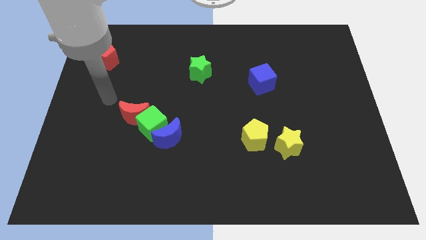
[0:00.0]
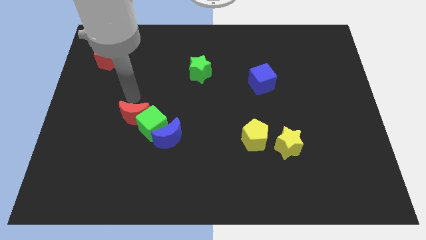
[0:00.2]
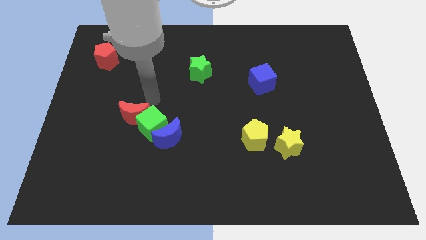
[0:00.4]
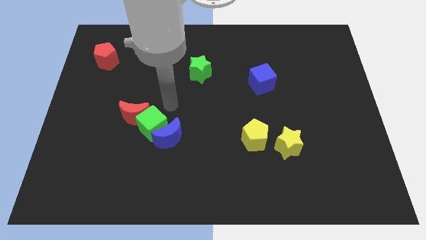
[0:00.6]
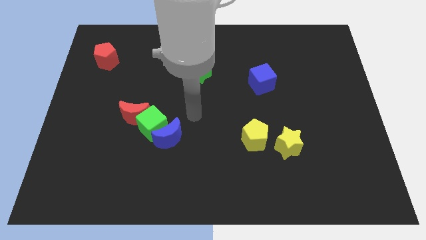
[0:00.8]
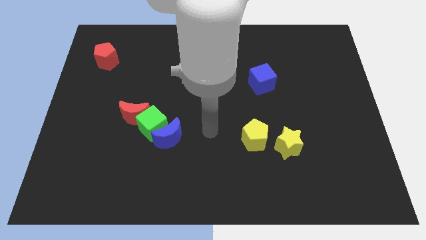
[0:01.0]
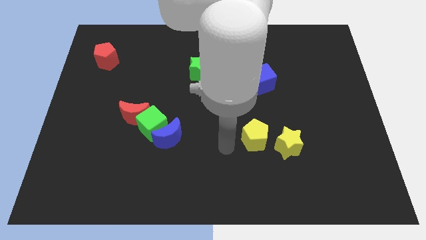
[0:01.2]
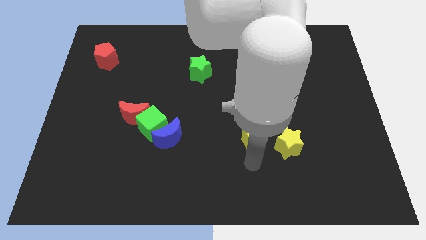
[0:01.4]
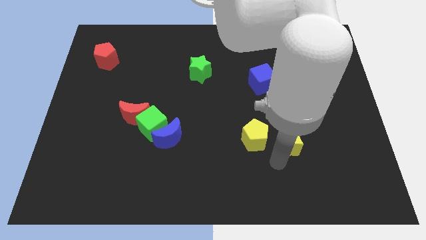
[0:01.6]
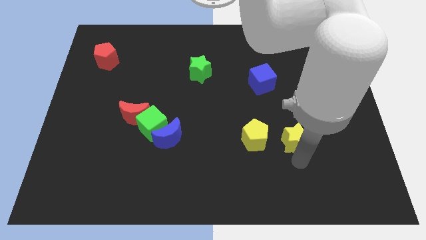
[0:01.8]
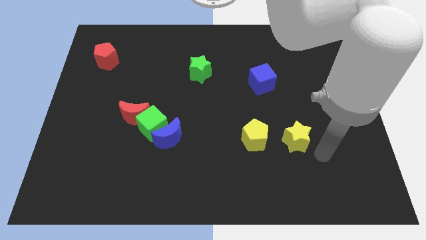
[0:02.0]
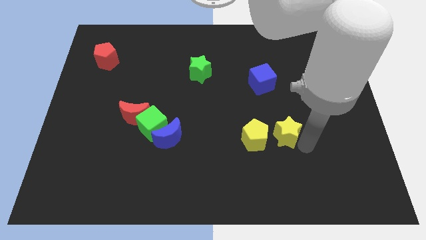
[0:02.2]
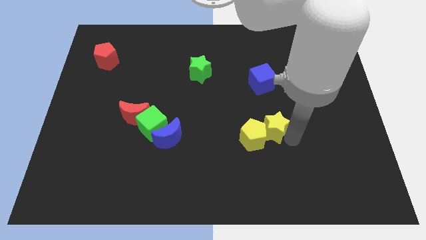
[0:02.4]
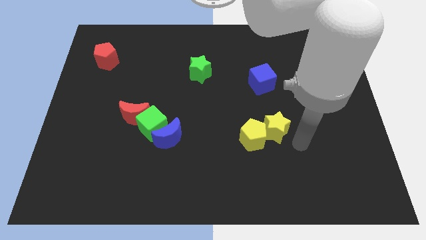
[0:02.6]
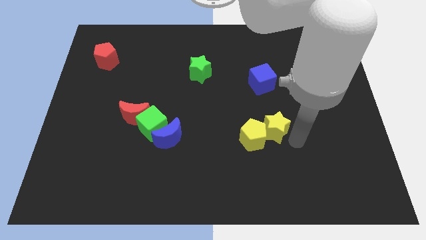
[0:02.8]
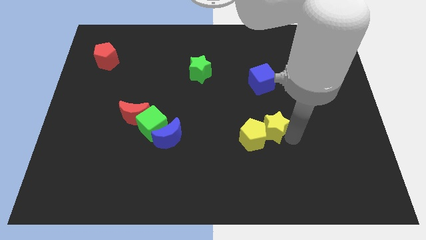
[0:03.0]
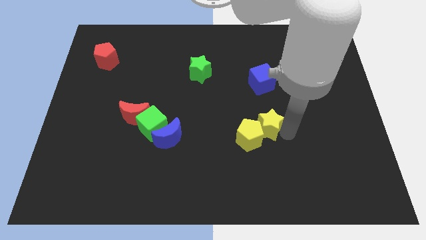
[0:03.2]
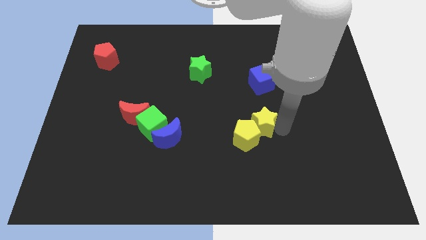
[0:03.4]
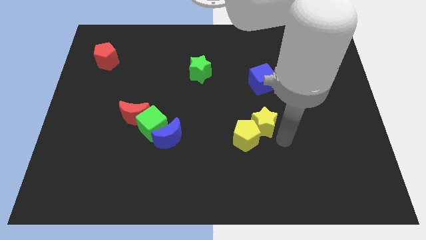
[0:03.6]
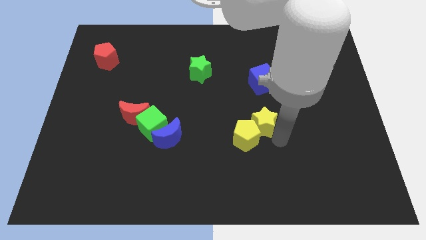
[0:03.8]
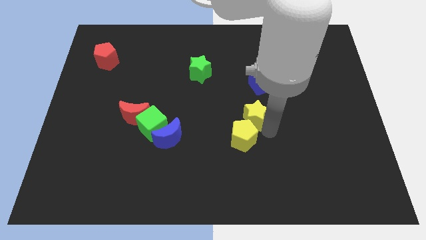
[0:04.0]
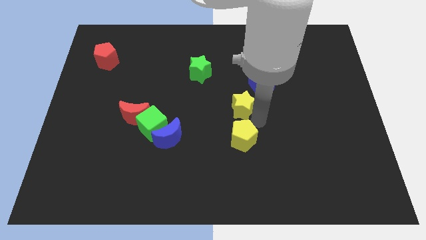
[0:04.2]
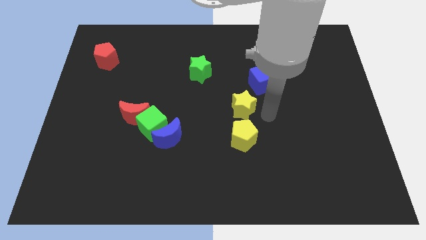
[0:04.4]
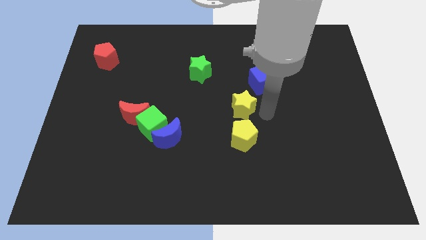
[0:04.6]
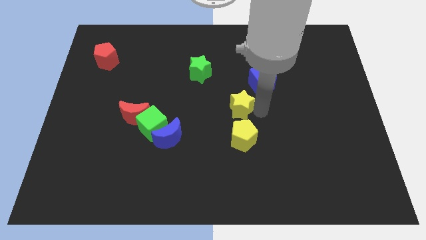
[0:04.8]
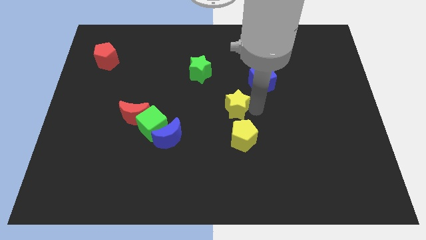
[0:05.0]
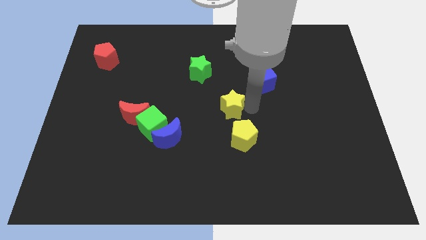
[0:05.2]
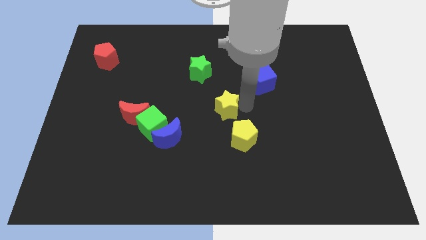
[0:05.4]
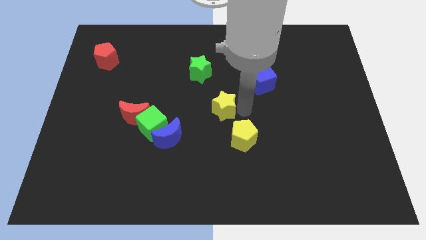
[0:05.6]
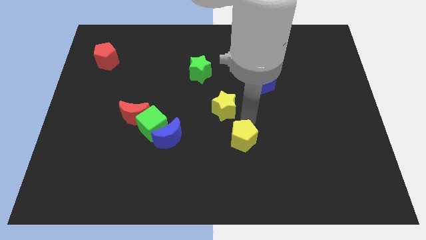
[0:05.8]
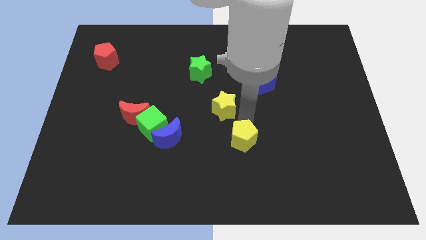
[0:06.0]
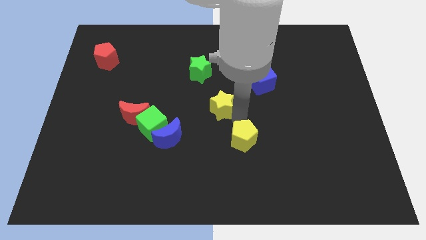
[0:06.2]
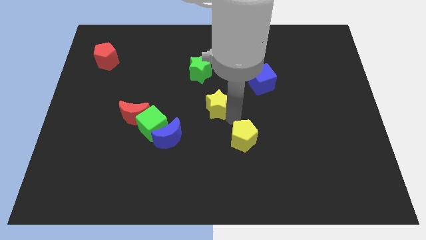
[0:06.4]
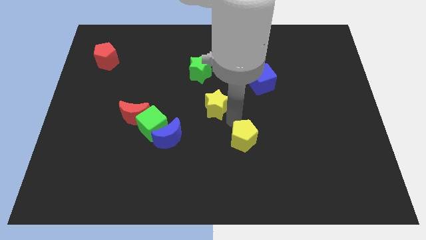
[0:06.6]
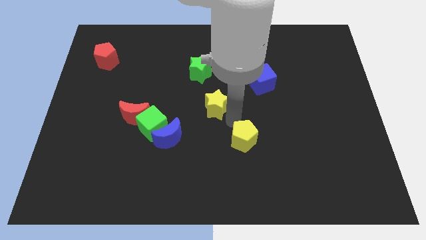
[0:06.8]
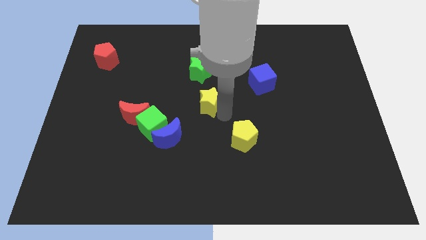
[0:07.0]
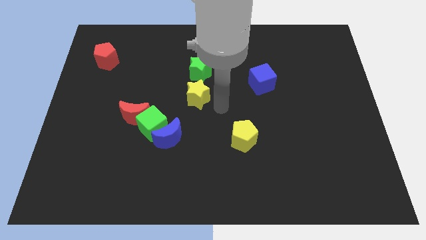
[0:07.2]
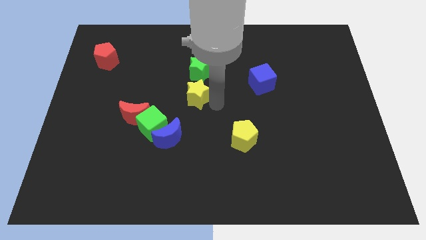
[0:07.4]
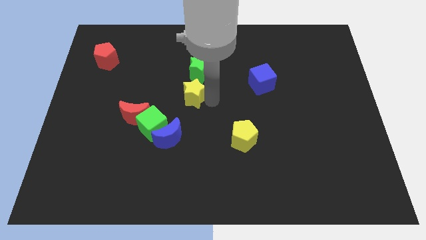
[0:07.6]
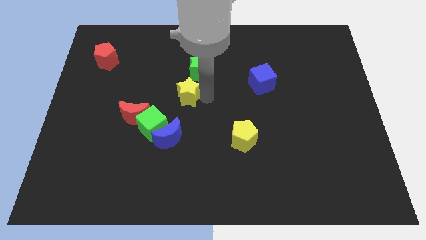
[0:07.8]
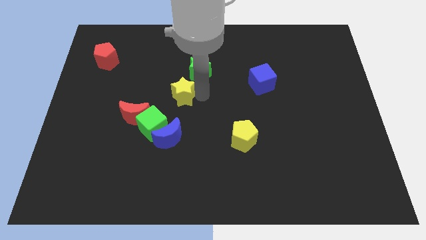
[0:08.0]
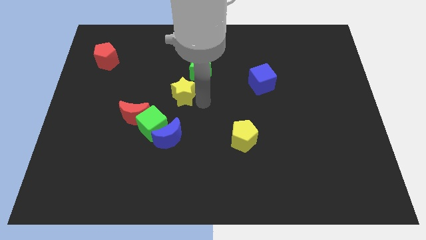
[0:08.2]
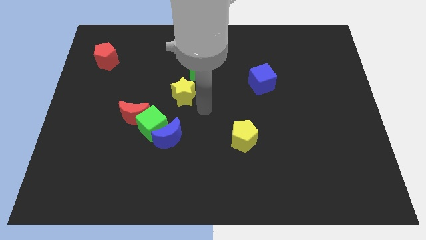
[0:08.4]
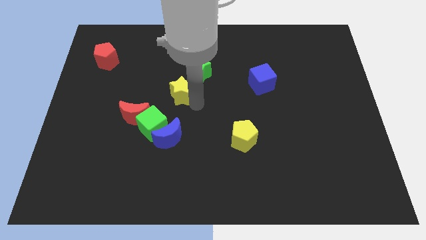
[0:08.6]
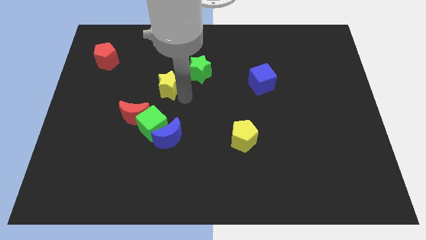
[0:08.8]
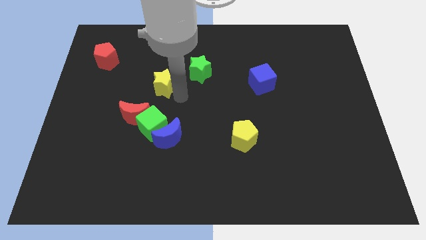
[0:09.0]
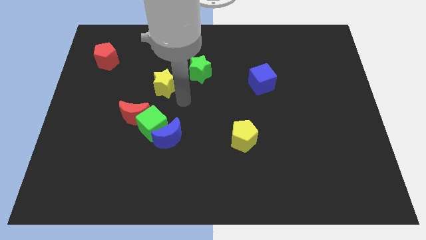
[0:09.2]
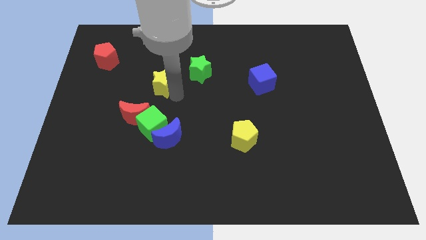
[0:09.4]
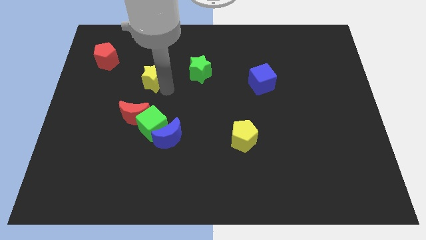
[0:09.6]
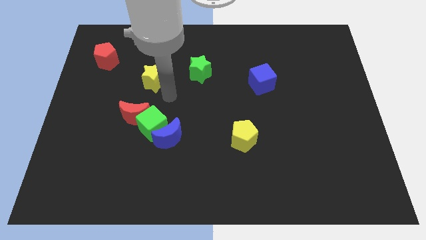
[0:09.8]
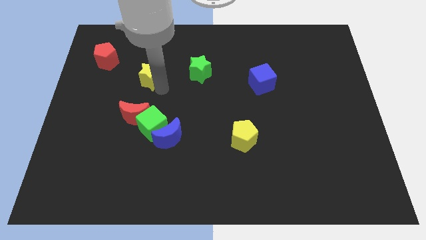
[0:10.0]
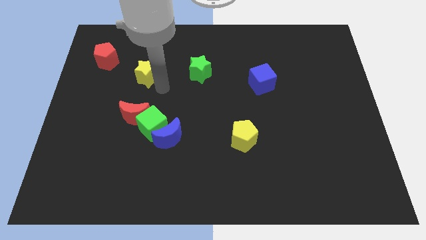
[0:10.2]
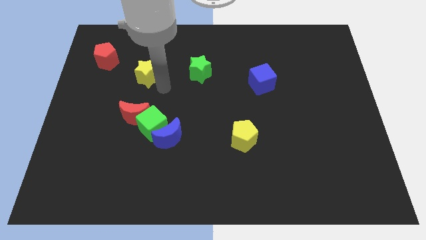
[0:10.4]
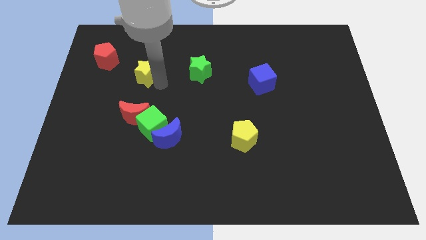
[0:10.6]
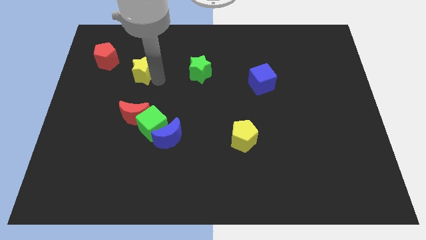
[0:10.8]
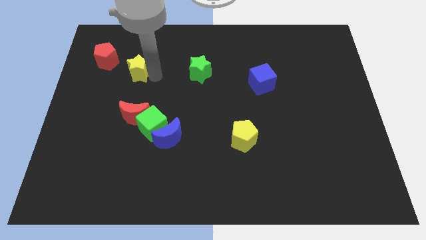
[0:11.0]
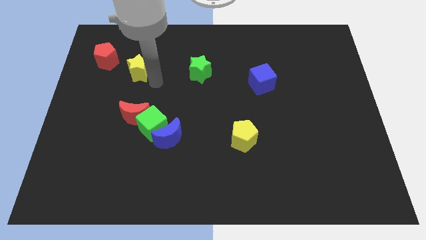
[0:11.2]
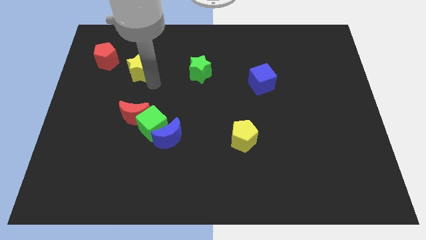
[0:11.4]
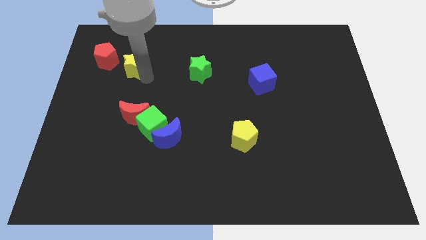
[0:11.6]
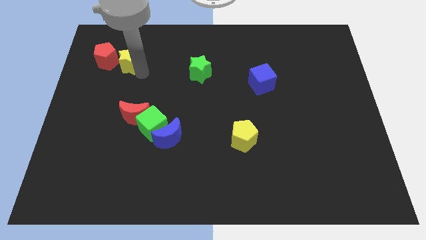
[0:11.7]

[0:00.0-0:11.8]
put the yellow star close to the red pentagon

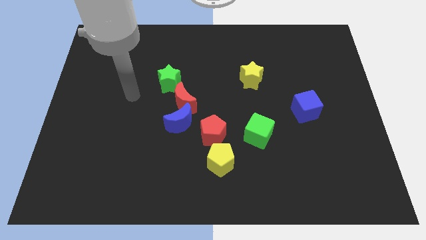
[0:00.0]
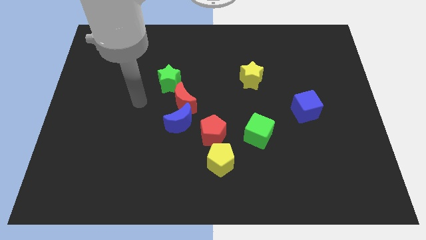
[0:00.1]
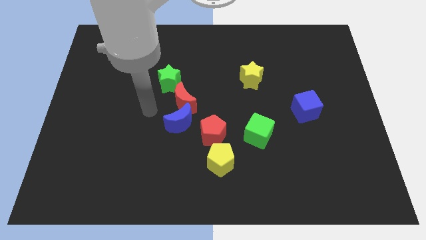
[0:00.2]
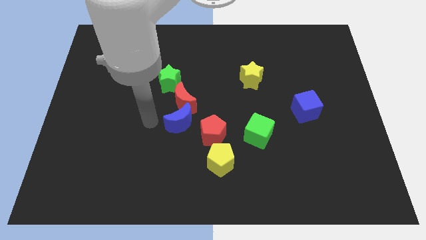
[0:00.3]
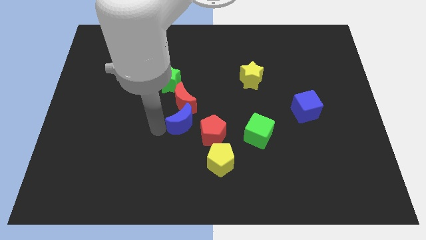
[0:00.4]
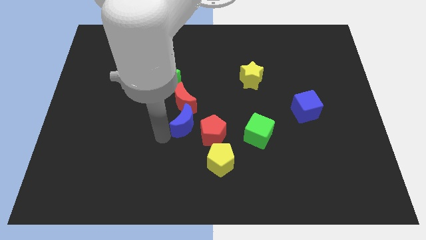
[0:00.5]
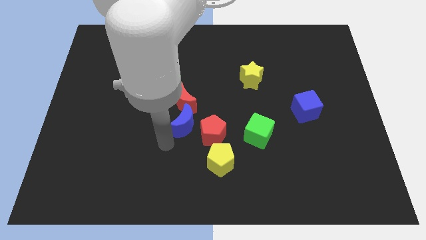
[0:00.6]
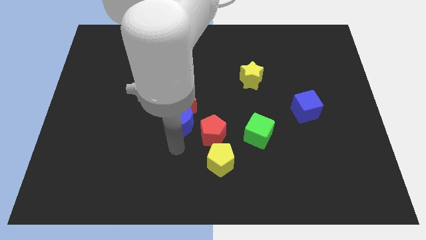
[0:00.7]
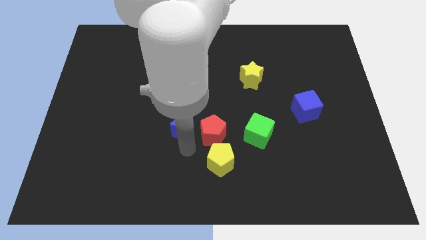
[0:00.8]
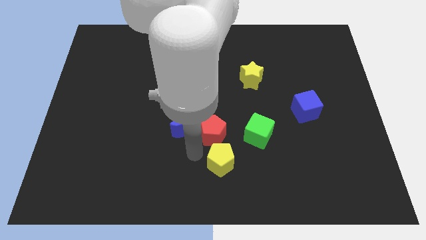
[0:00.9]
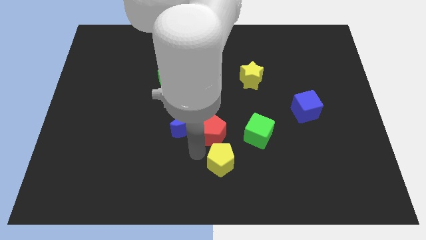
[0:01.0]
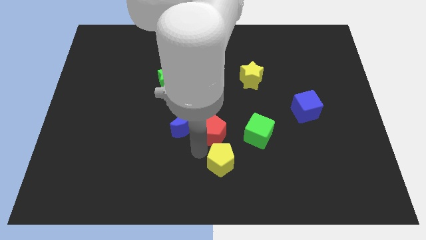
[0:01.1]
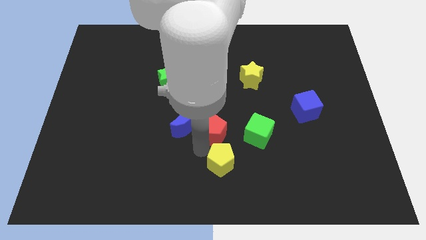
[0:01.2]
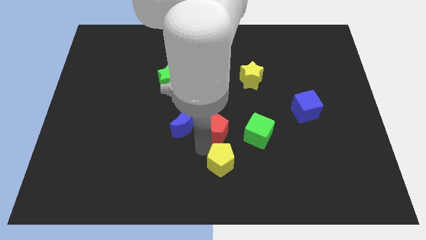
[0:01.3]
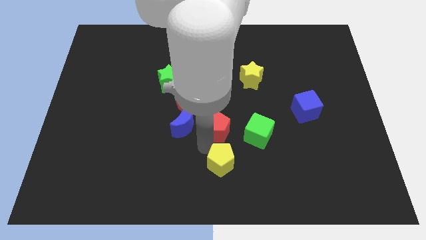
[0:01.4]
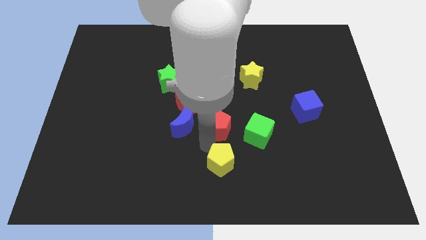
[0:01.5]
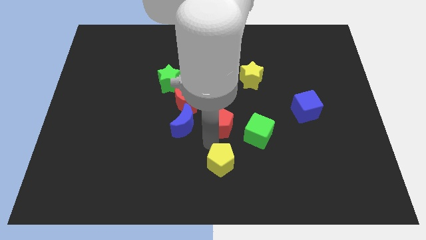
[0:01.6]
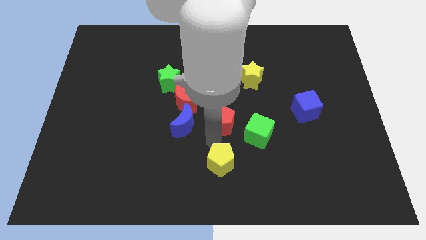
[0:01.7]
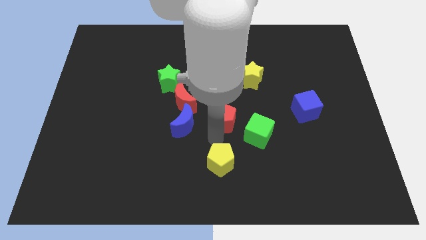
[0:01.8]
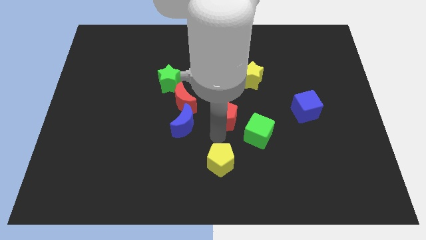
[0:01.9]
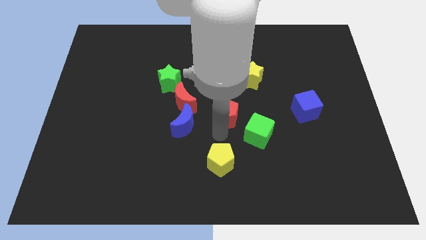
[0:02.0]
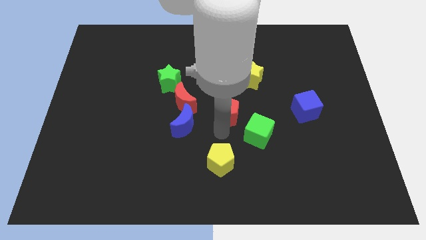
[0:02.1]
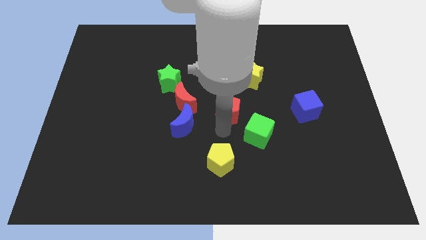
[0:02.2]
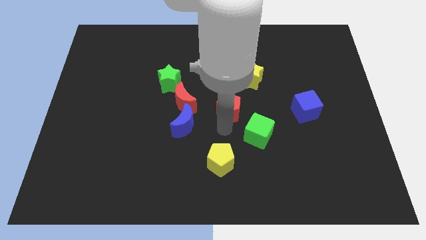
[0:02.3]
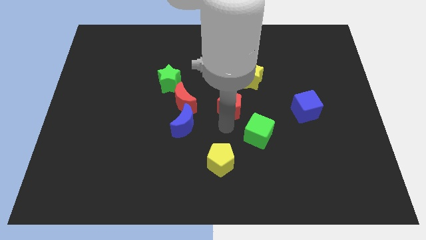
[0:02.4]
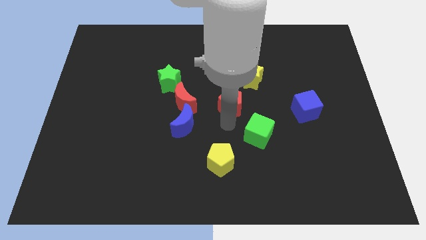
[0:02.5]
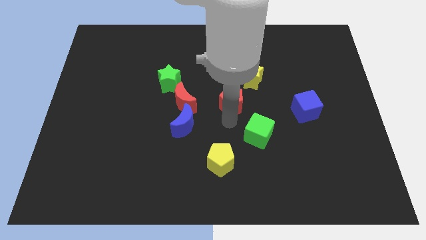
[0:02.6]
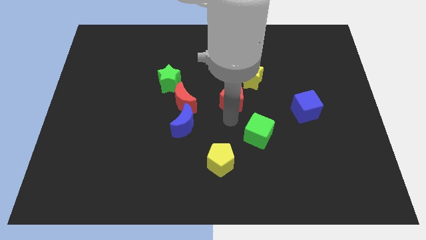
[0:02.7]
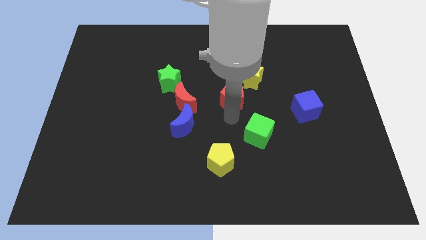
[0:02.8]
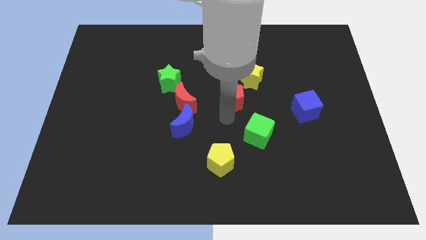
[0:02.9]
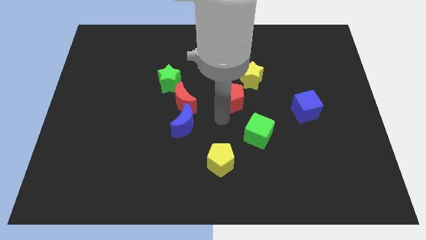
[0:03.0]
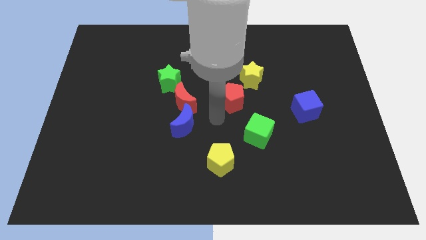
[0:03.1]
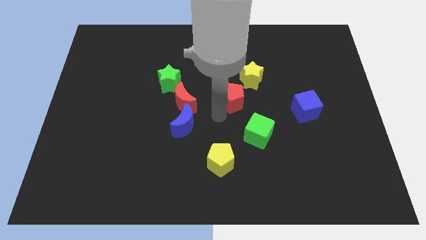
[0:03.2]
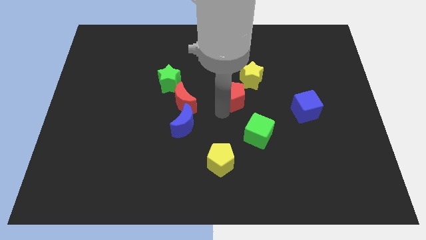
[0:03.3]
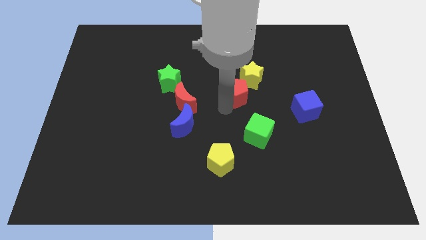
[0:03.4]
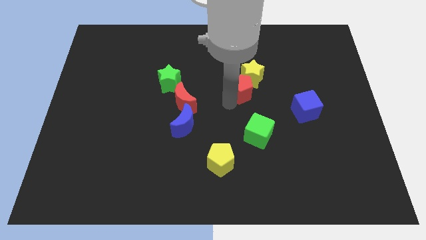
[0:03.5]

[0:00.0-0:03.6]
slide the red pentagon to the yellow star
